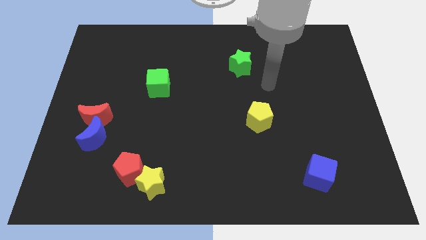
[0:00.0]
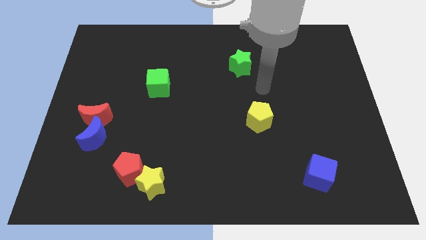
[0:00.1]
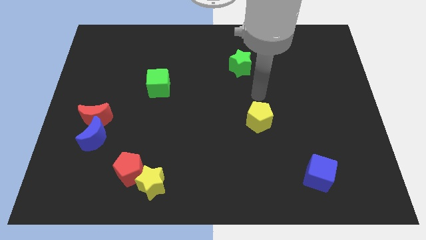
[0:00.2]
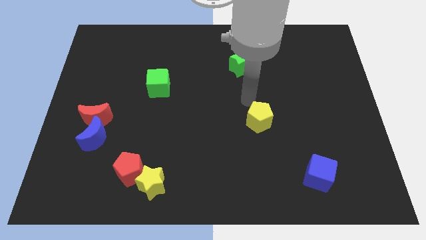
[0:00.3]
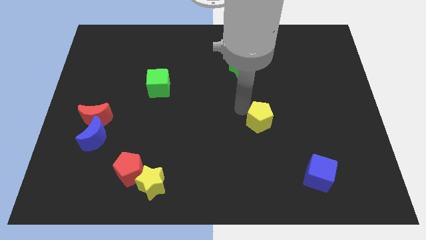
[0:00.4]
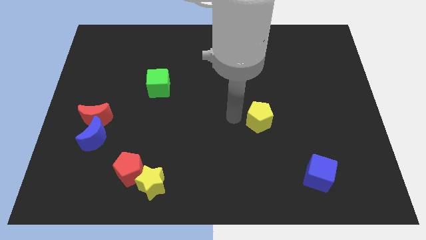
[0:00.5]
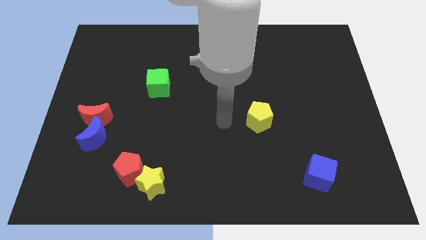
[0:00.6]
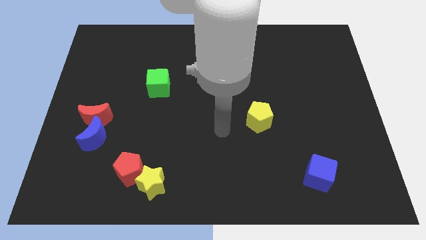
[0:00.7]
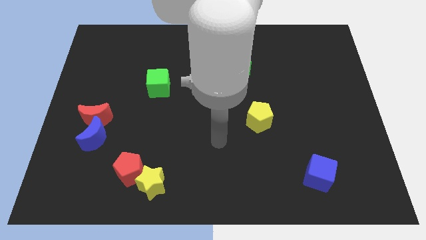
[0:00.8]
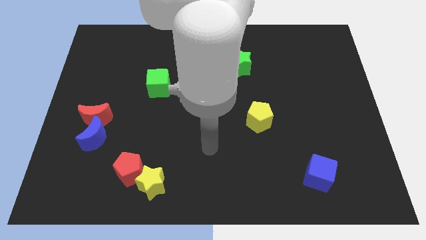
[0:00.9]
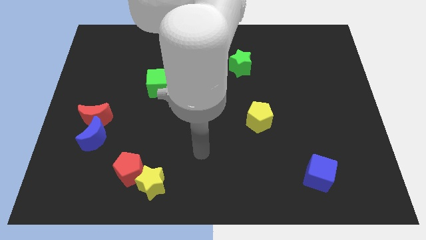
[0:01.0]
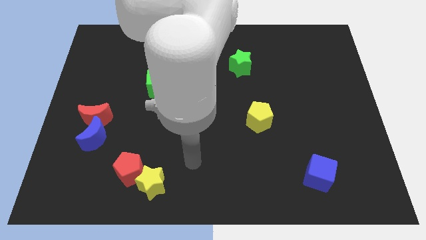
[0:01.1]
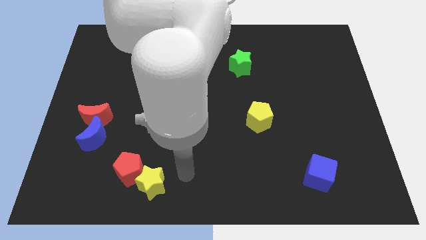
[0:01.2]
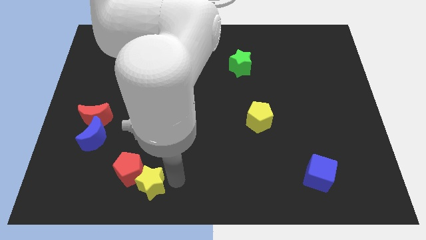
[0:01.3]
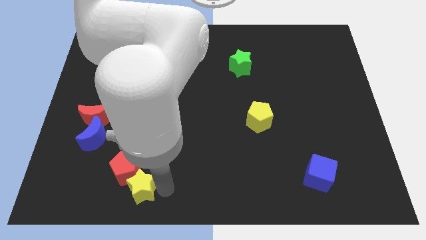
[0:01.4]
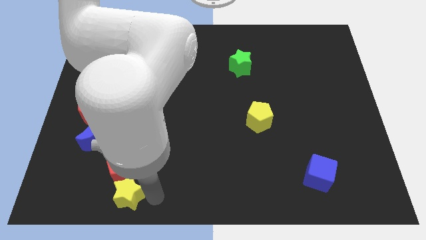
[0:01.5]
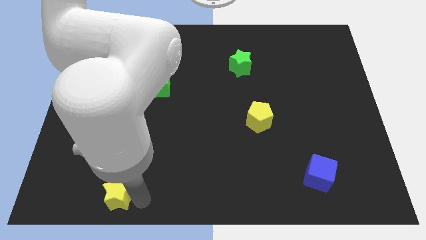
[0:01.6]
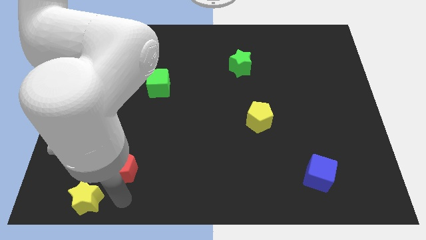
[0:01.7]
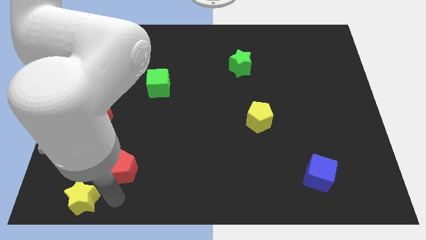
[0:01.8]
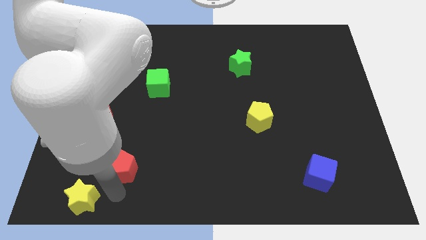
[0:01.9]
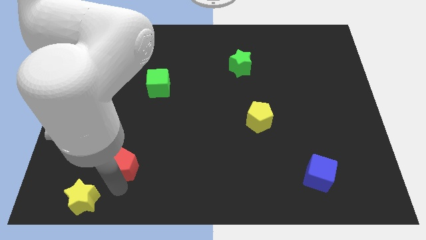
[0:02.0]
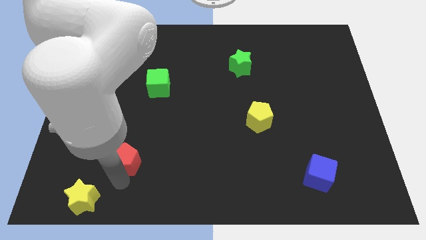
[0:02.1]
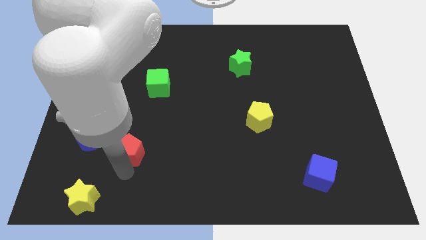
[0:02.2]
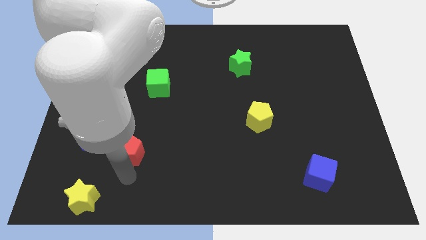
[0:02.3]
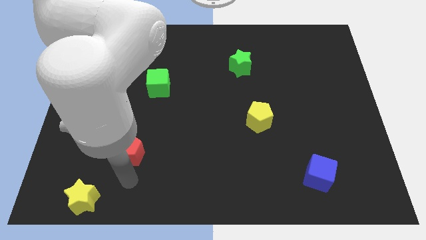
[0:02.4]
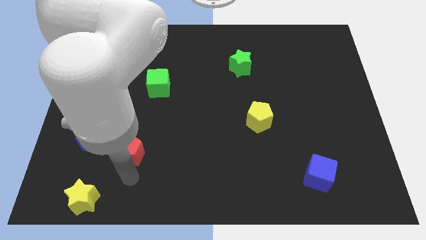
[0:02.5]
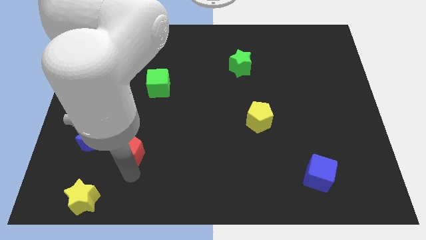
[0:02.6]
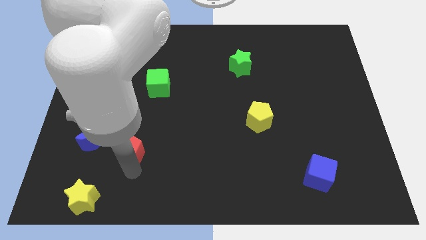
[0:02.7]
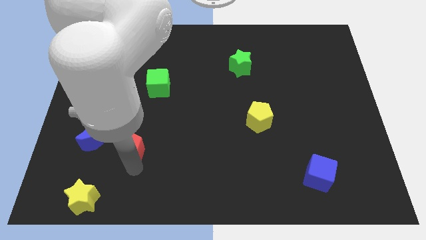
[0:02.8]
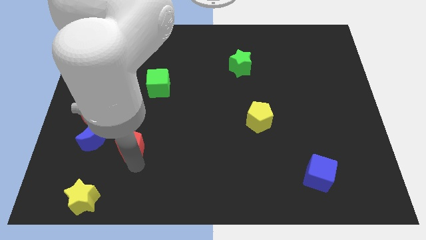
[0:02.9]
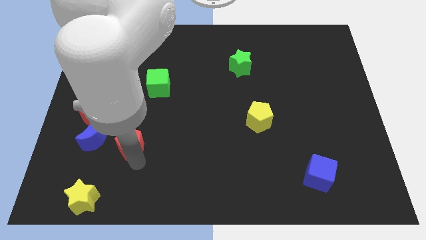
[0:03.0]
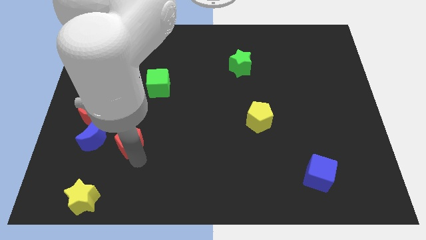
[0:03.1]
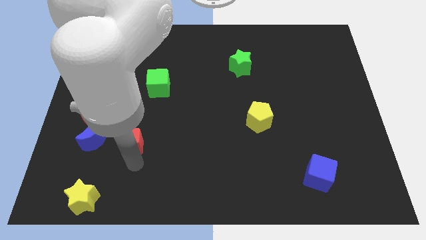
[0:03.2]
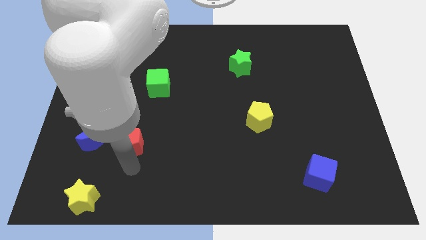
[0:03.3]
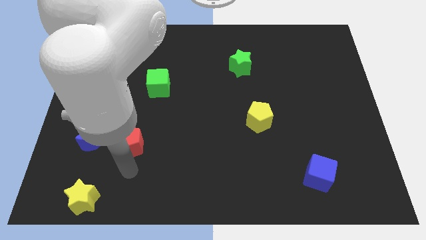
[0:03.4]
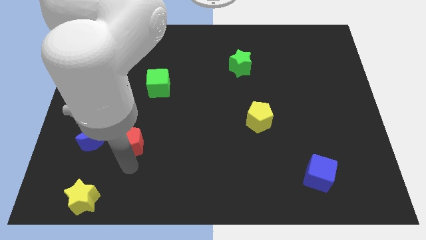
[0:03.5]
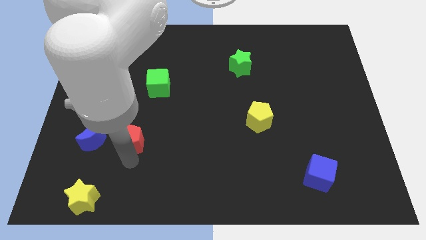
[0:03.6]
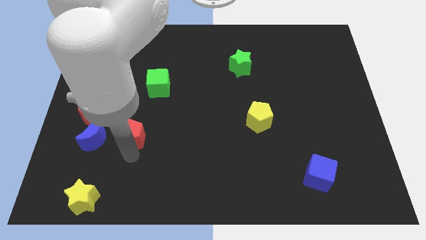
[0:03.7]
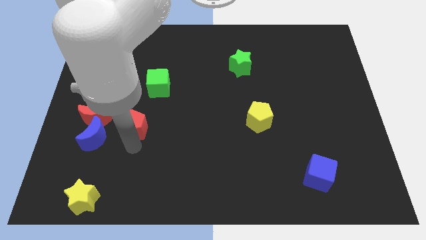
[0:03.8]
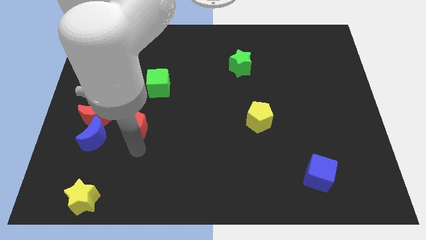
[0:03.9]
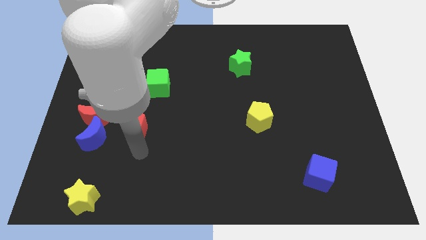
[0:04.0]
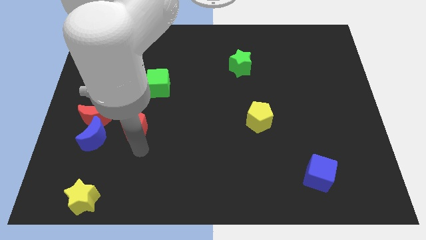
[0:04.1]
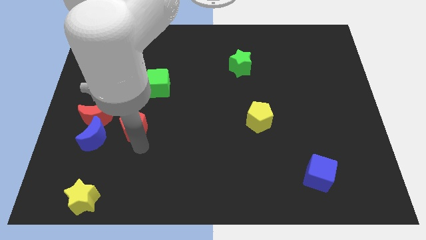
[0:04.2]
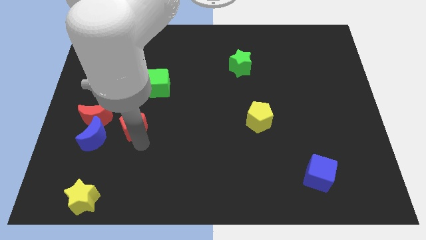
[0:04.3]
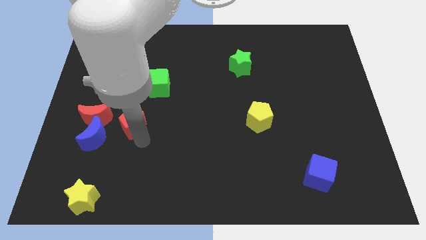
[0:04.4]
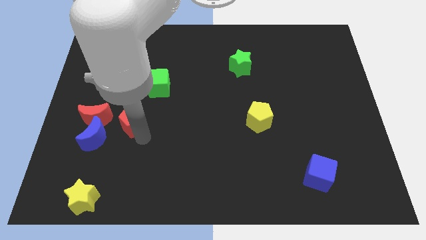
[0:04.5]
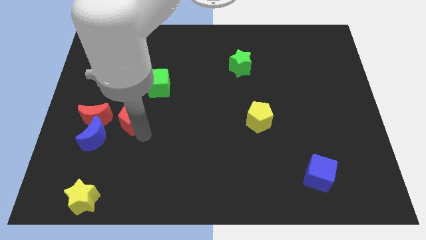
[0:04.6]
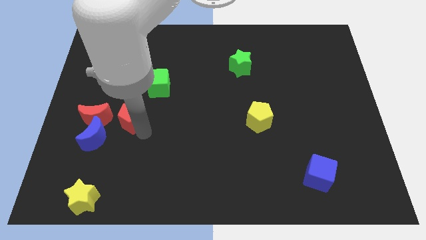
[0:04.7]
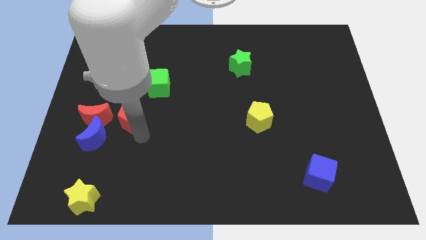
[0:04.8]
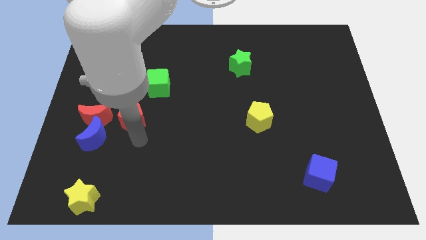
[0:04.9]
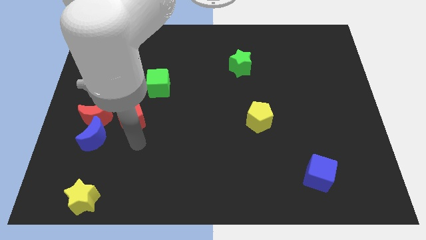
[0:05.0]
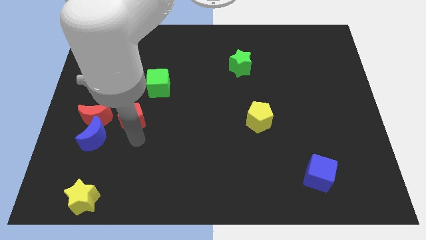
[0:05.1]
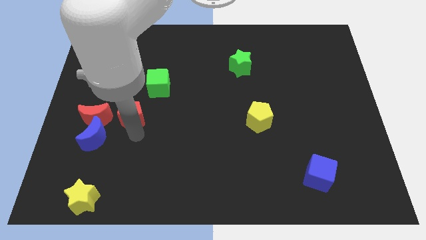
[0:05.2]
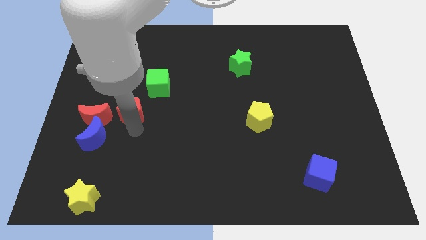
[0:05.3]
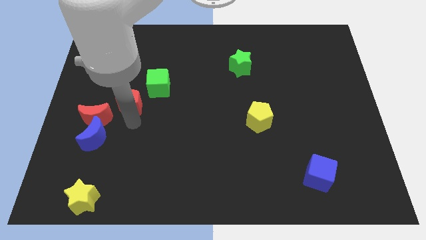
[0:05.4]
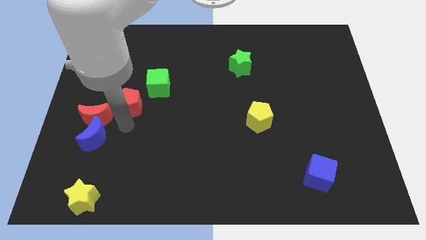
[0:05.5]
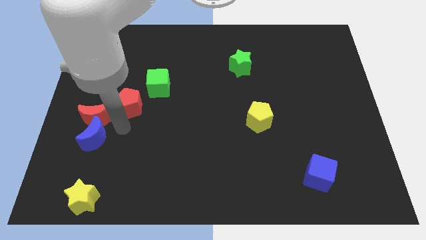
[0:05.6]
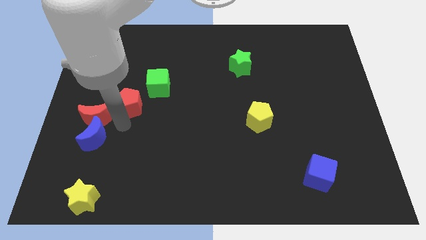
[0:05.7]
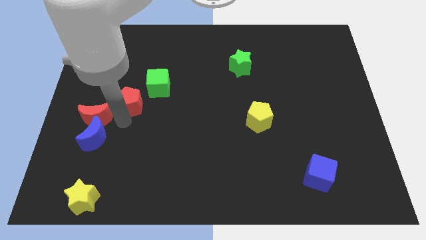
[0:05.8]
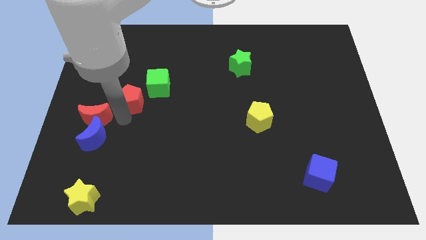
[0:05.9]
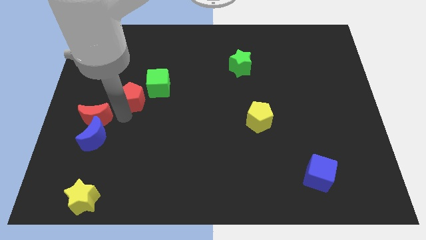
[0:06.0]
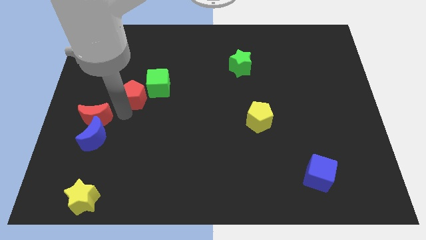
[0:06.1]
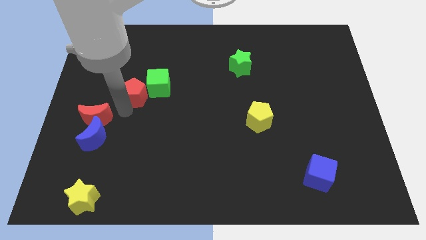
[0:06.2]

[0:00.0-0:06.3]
slide the red pentagon upwards

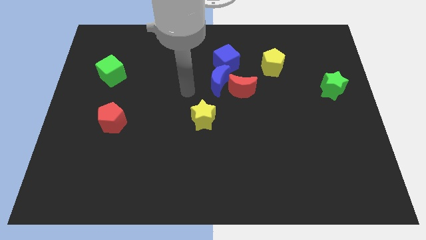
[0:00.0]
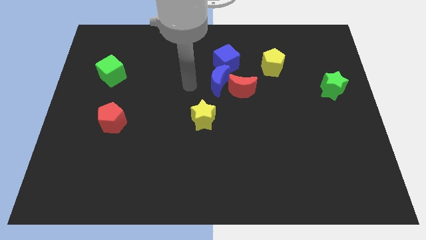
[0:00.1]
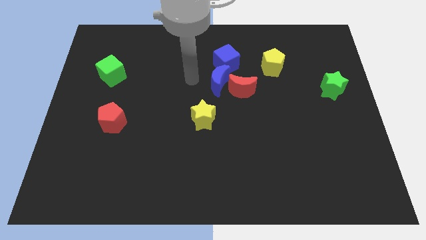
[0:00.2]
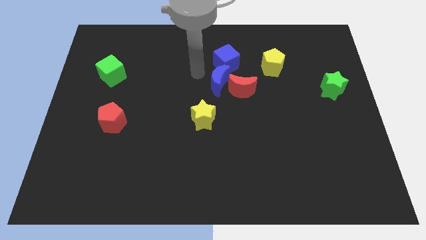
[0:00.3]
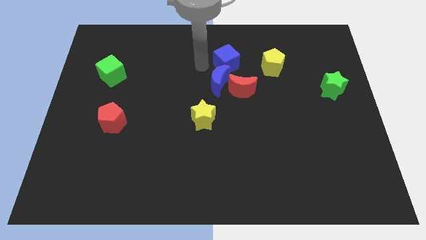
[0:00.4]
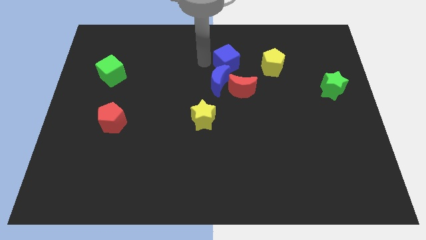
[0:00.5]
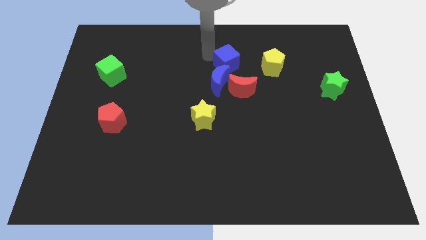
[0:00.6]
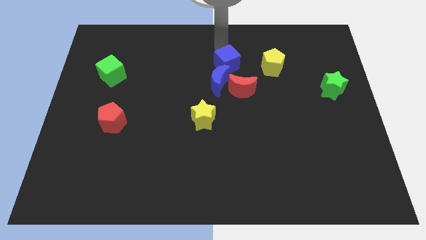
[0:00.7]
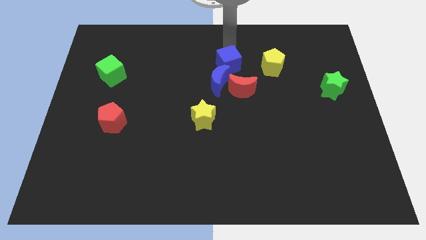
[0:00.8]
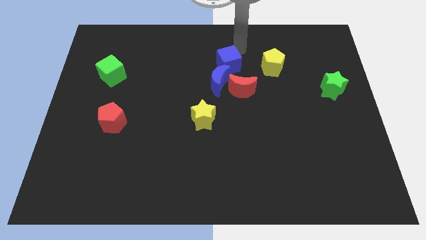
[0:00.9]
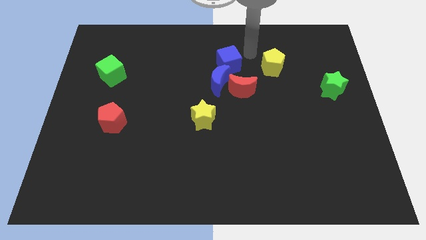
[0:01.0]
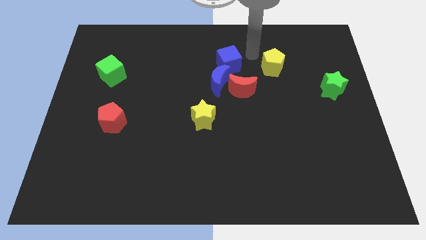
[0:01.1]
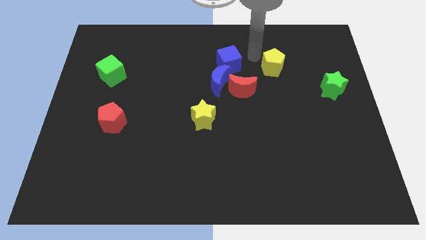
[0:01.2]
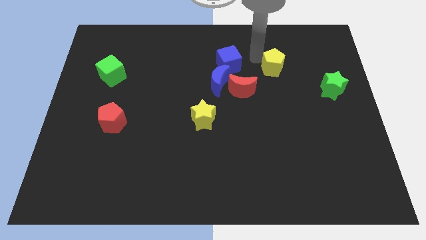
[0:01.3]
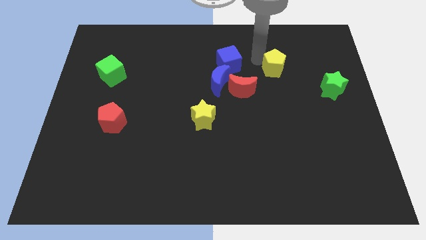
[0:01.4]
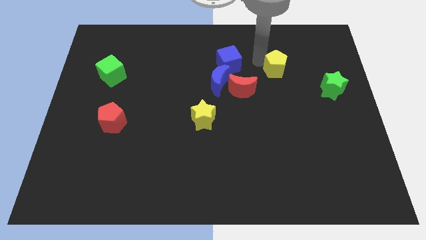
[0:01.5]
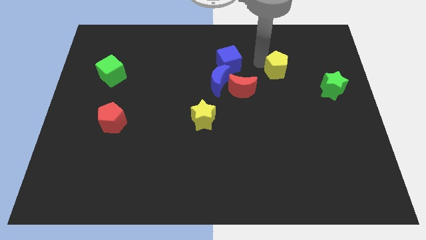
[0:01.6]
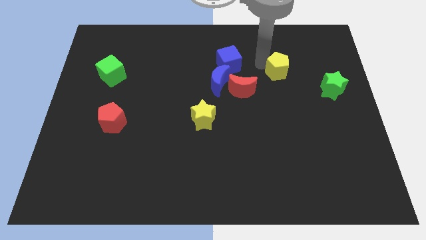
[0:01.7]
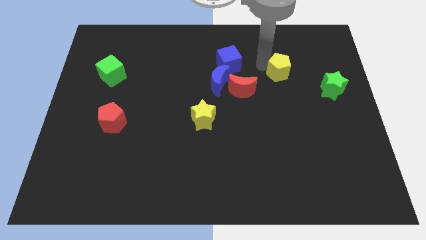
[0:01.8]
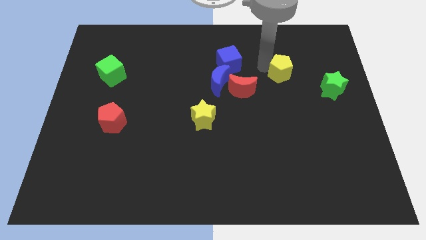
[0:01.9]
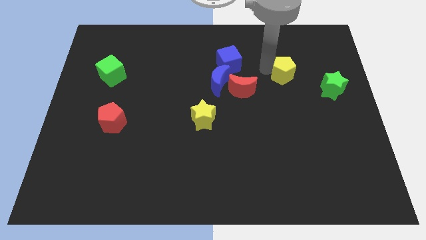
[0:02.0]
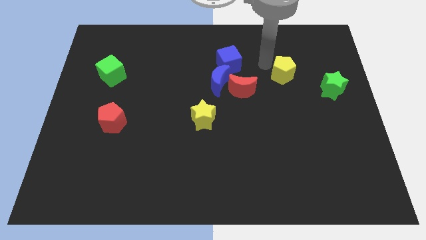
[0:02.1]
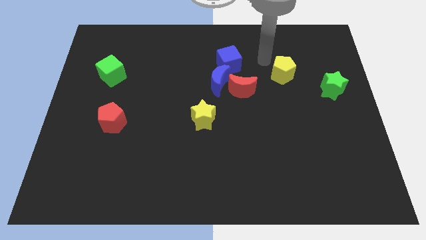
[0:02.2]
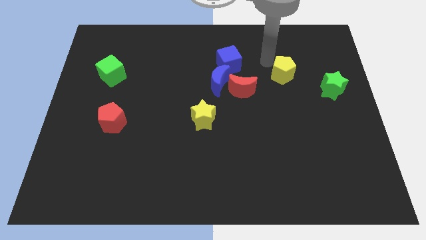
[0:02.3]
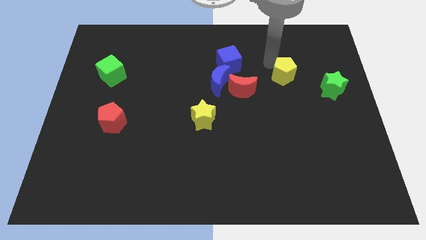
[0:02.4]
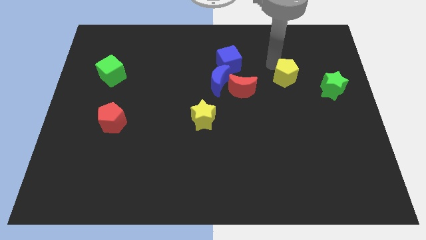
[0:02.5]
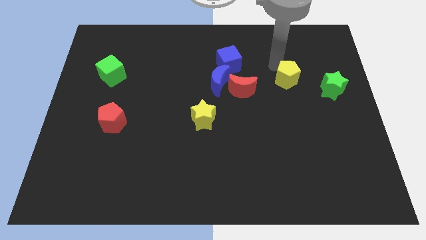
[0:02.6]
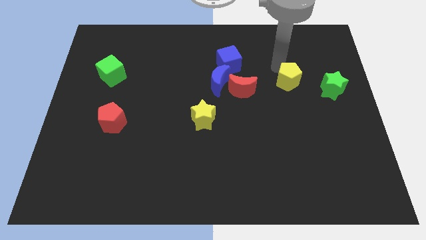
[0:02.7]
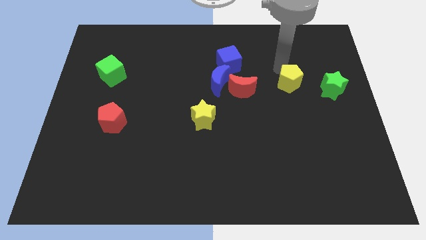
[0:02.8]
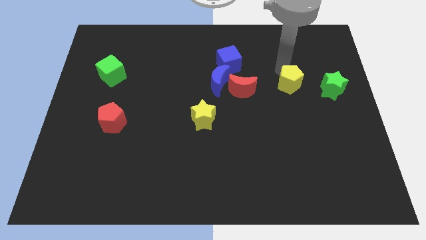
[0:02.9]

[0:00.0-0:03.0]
move the yellow pentagon down and to the right a bit
